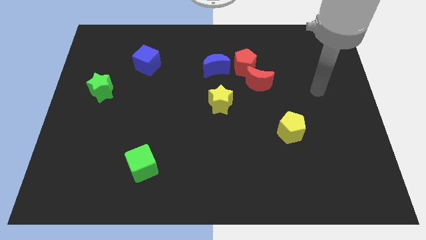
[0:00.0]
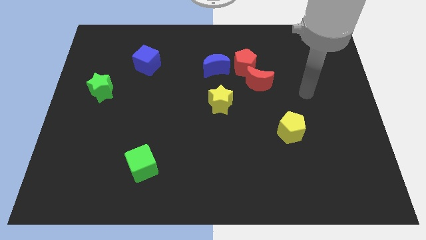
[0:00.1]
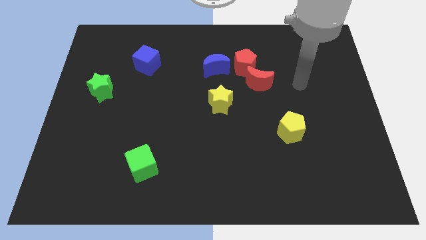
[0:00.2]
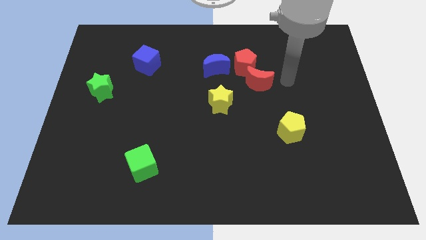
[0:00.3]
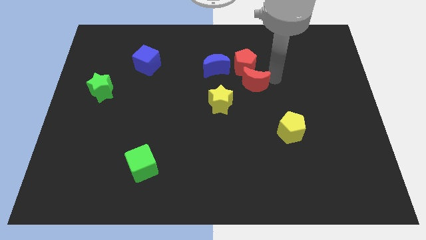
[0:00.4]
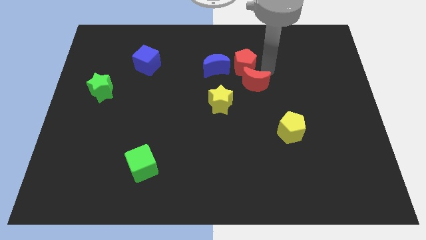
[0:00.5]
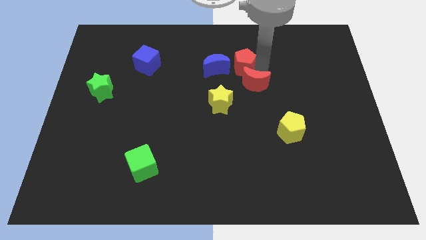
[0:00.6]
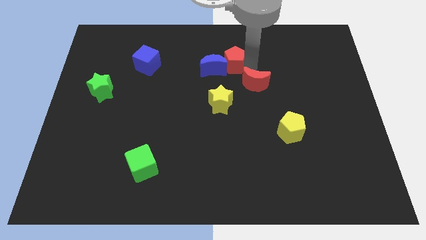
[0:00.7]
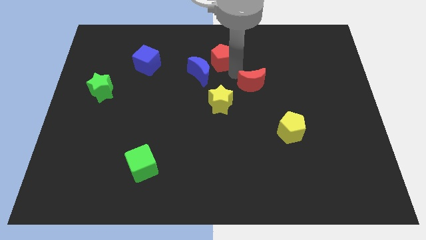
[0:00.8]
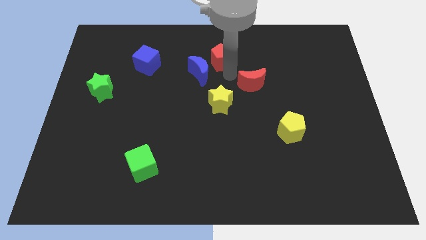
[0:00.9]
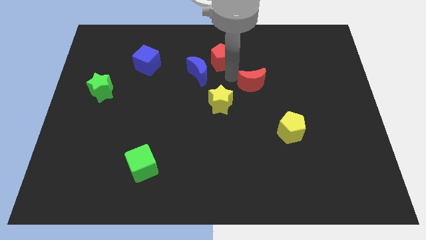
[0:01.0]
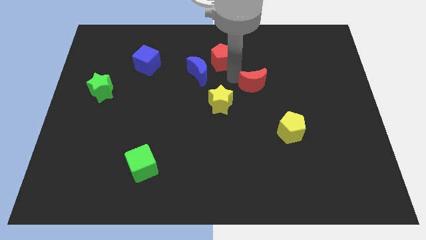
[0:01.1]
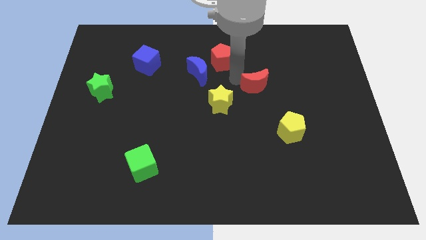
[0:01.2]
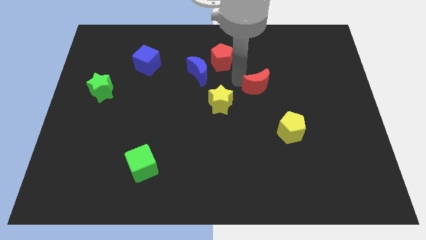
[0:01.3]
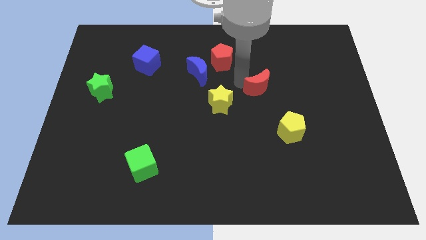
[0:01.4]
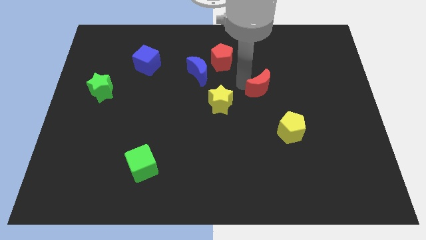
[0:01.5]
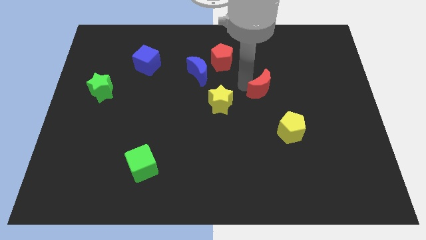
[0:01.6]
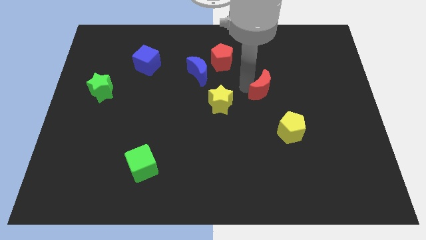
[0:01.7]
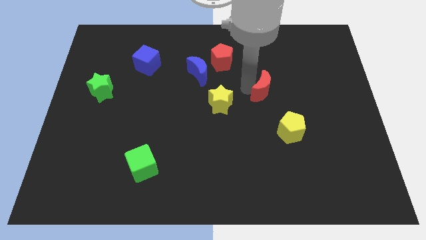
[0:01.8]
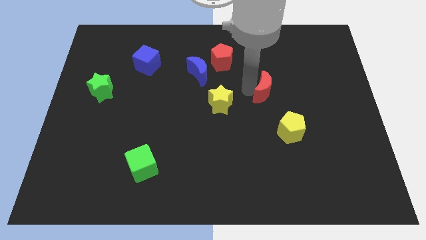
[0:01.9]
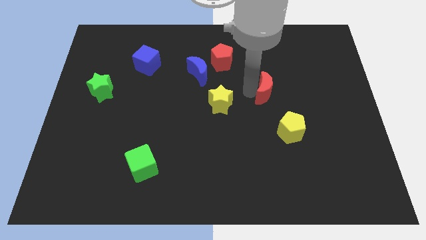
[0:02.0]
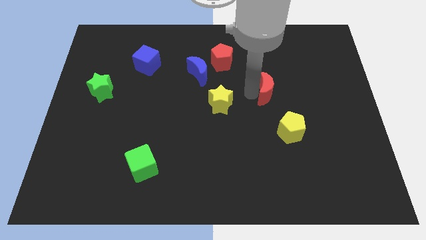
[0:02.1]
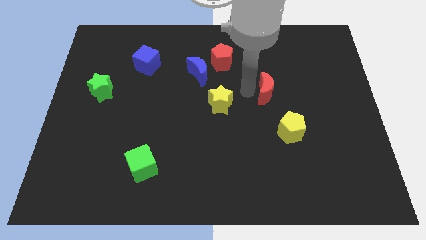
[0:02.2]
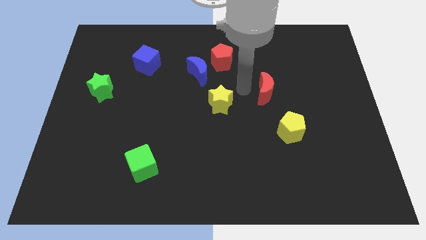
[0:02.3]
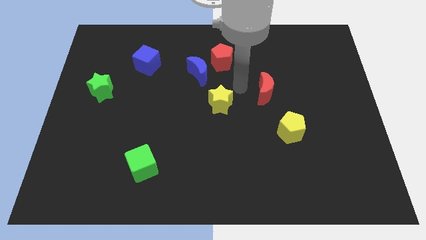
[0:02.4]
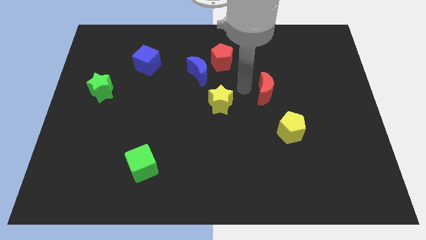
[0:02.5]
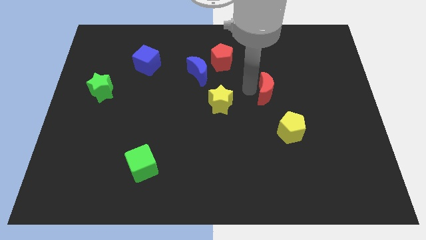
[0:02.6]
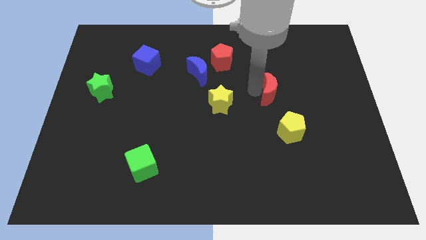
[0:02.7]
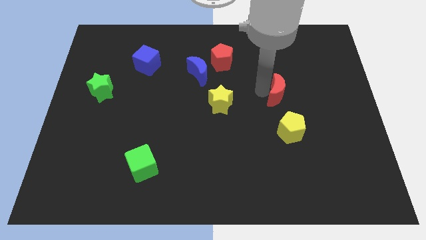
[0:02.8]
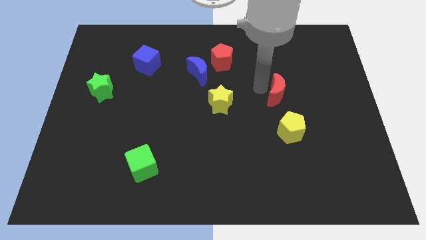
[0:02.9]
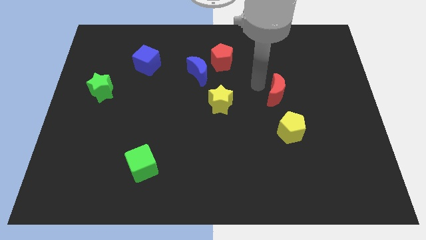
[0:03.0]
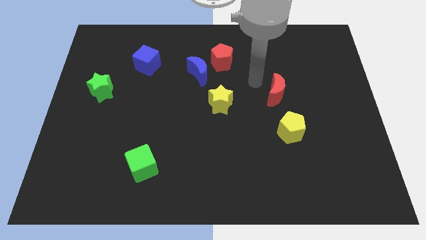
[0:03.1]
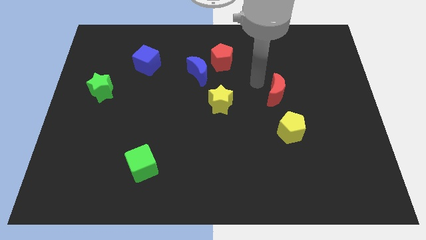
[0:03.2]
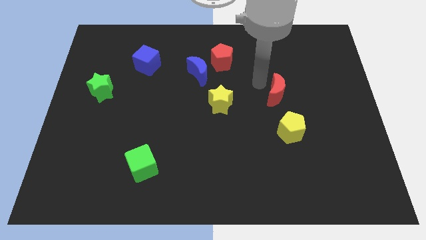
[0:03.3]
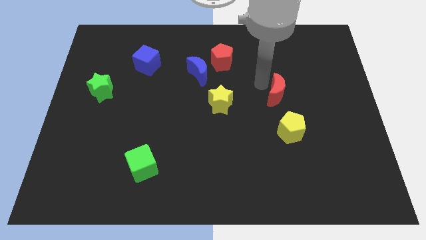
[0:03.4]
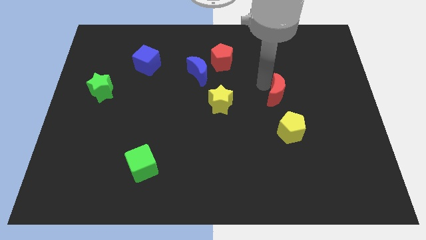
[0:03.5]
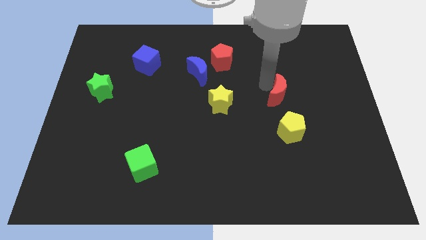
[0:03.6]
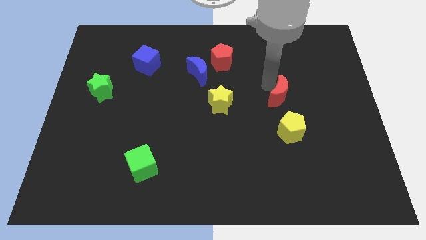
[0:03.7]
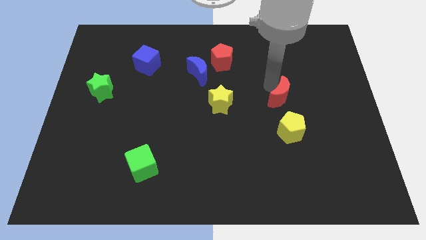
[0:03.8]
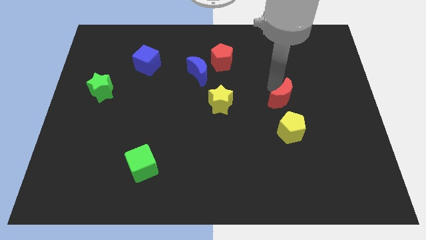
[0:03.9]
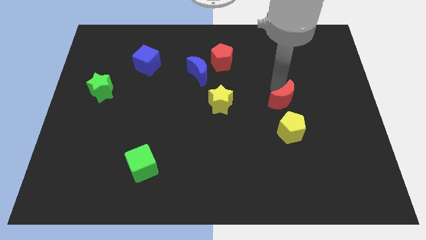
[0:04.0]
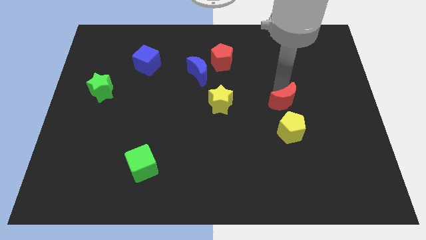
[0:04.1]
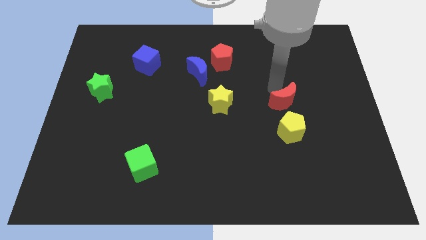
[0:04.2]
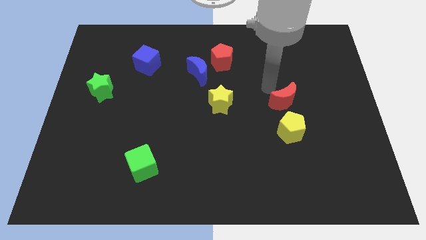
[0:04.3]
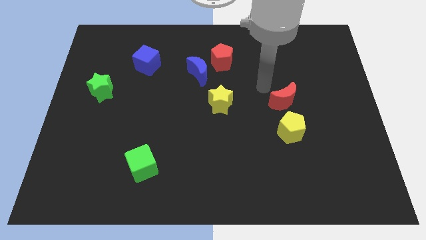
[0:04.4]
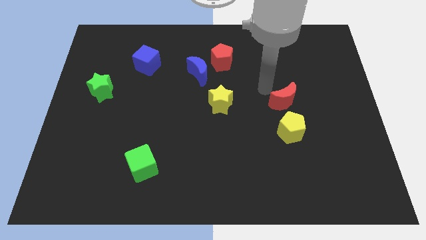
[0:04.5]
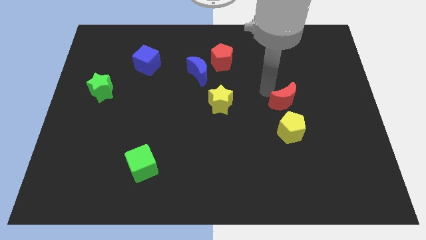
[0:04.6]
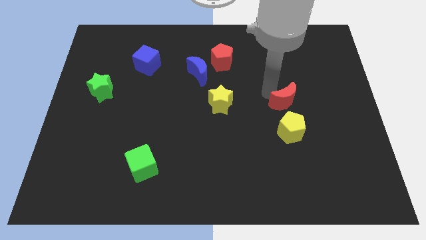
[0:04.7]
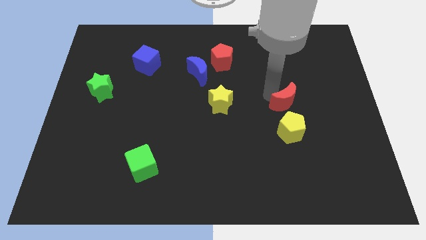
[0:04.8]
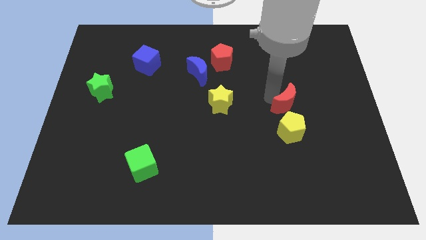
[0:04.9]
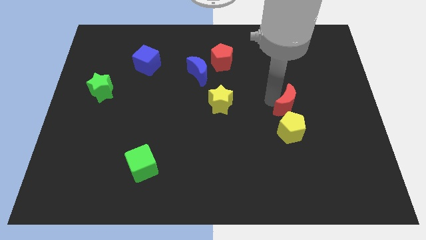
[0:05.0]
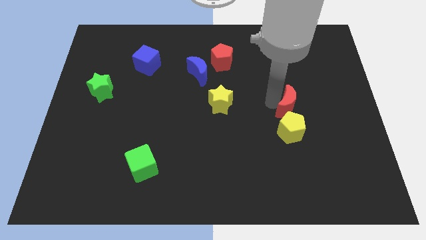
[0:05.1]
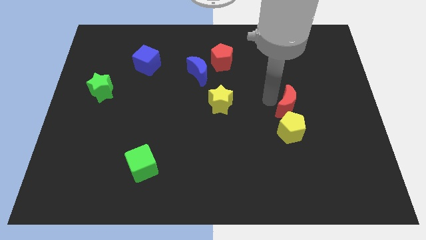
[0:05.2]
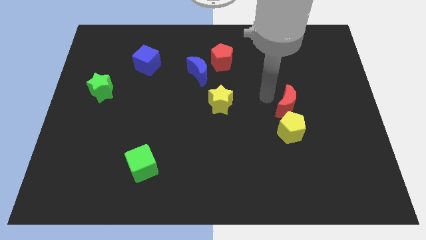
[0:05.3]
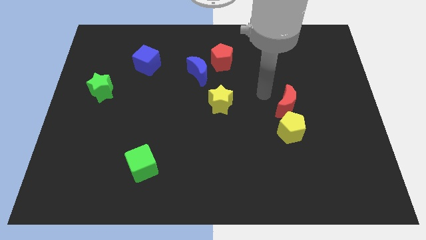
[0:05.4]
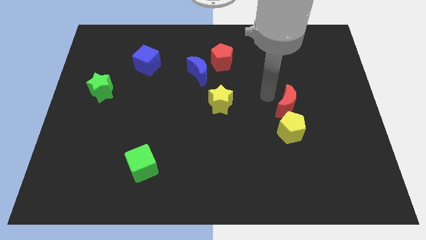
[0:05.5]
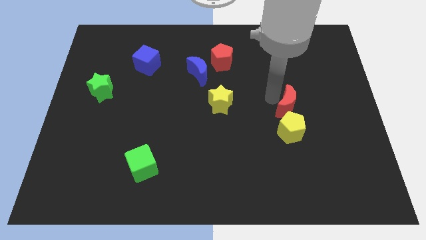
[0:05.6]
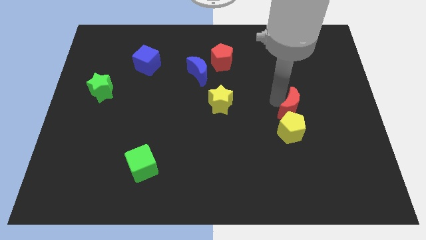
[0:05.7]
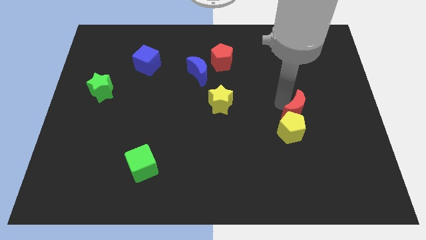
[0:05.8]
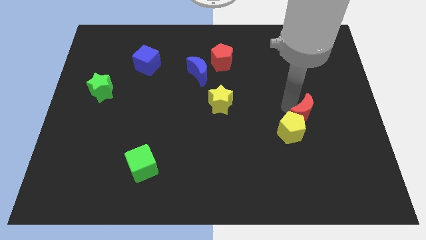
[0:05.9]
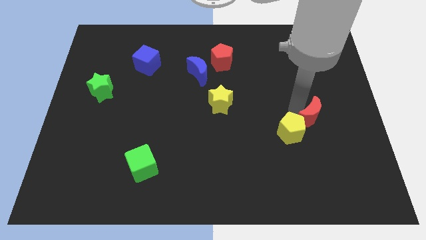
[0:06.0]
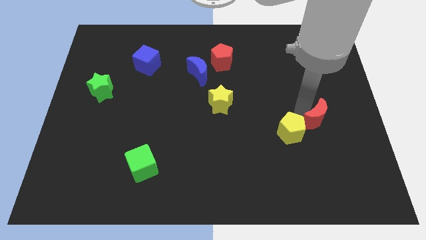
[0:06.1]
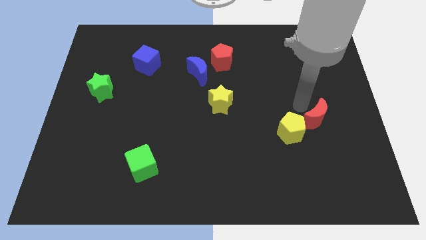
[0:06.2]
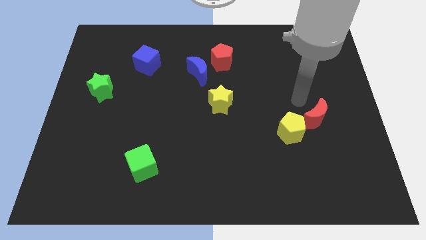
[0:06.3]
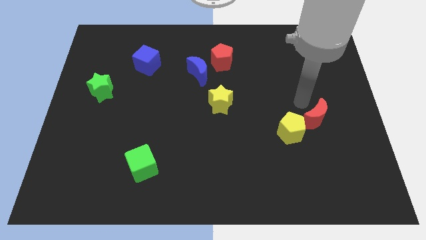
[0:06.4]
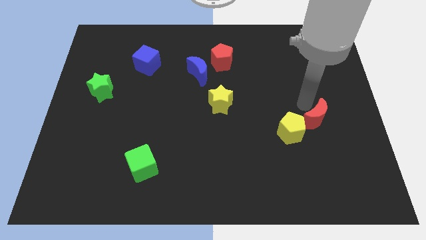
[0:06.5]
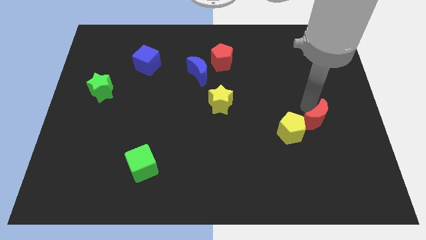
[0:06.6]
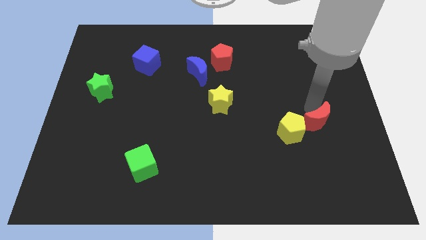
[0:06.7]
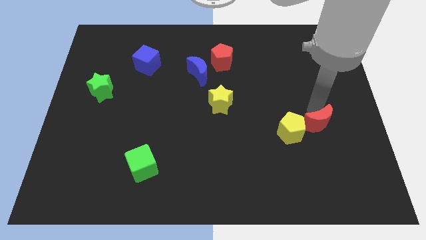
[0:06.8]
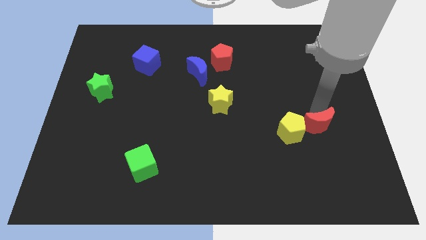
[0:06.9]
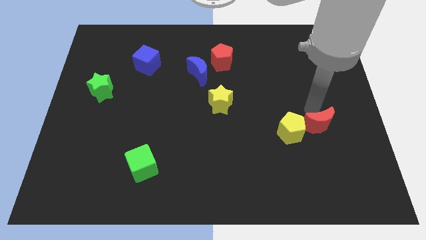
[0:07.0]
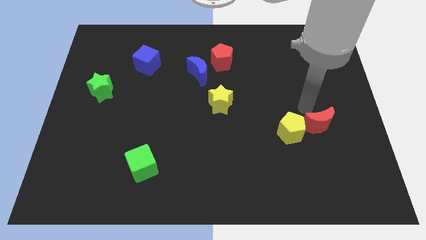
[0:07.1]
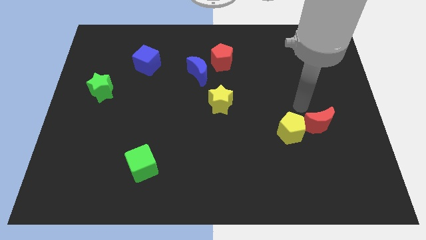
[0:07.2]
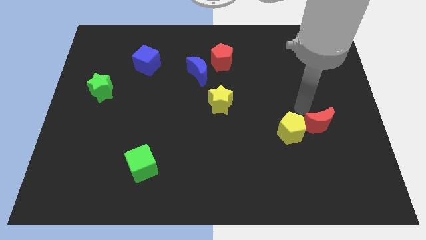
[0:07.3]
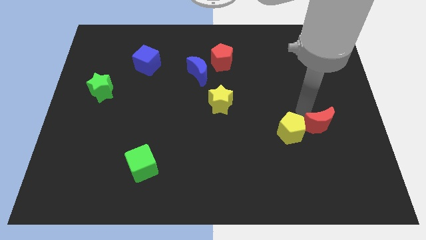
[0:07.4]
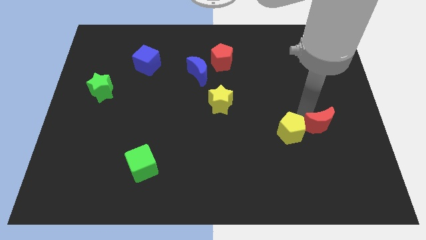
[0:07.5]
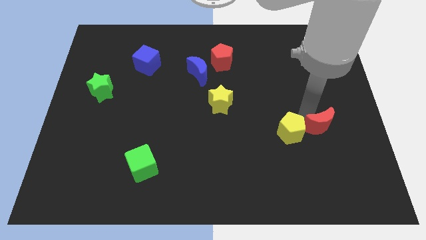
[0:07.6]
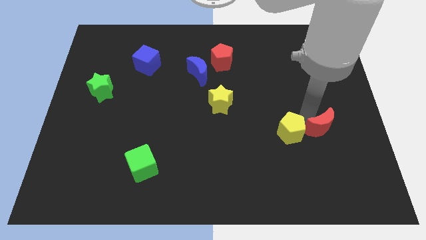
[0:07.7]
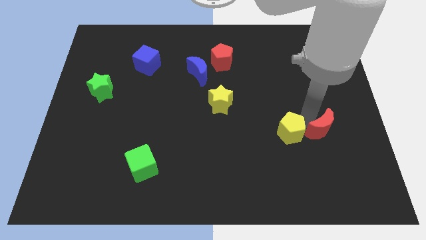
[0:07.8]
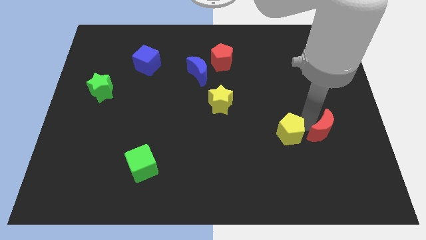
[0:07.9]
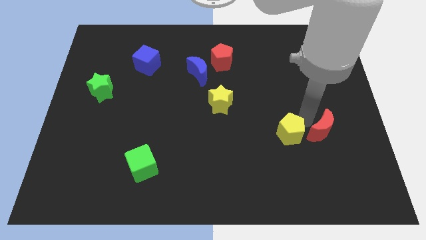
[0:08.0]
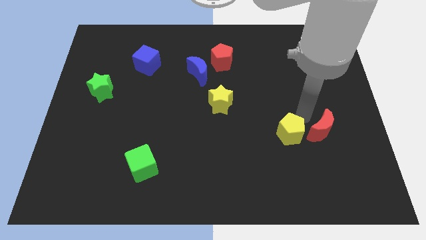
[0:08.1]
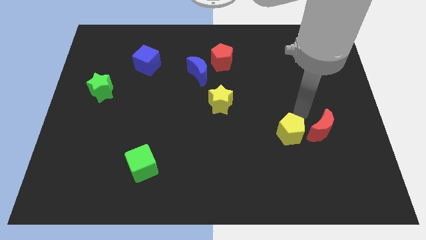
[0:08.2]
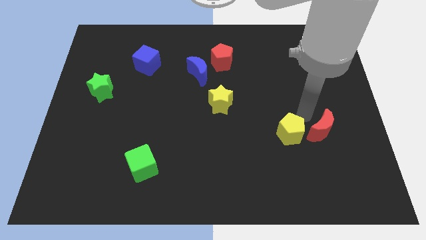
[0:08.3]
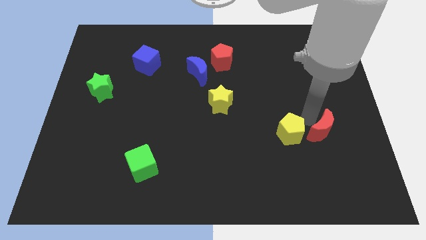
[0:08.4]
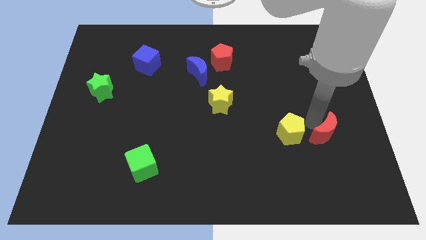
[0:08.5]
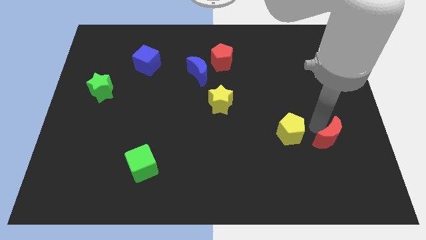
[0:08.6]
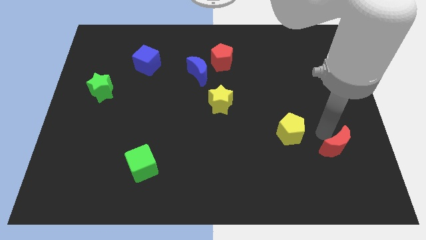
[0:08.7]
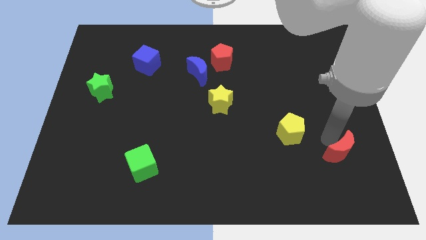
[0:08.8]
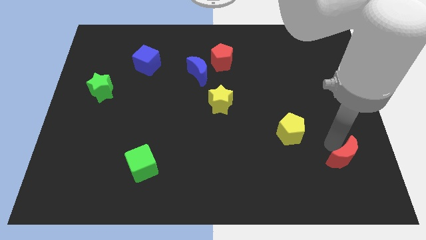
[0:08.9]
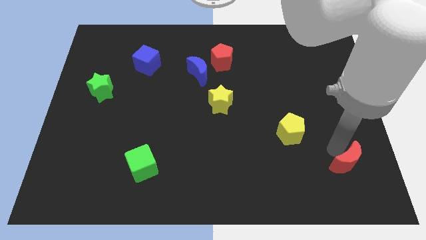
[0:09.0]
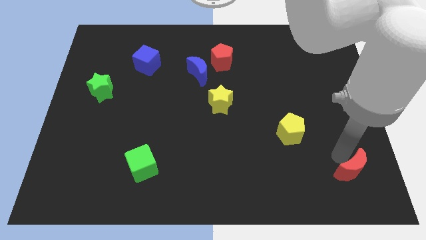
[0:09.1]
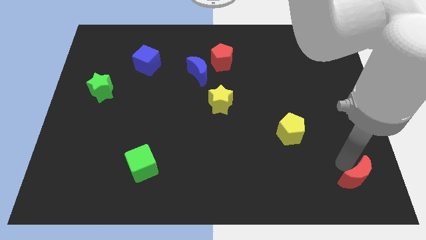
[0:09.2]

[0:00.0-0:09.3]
slide the red moon to the bottom right corner
